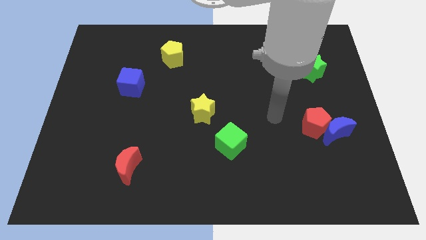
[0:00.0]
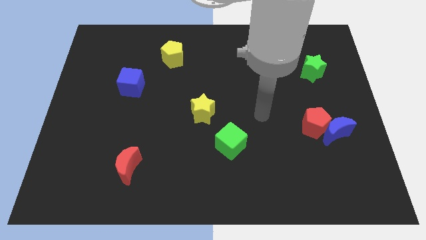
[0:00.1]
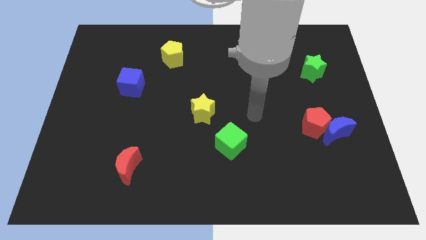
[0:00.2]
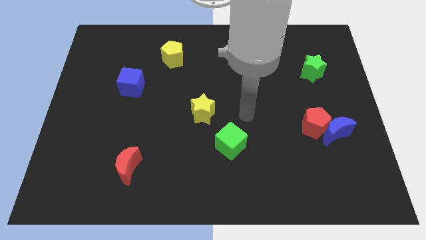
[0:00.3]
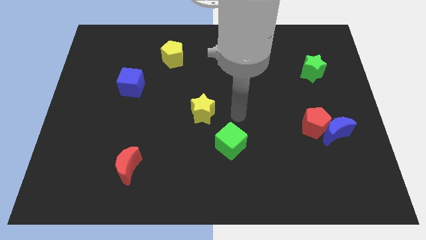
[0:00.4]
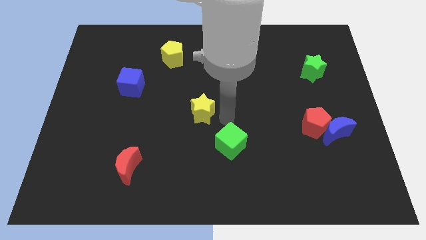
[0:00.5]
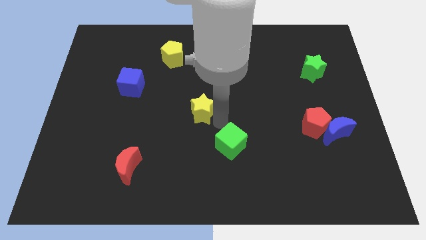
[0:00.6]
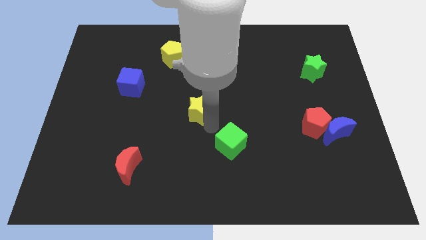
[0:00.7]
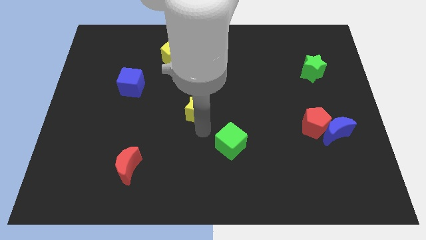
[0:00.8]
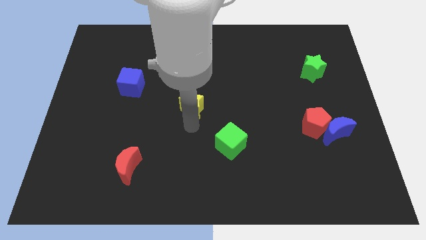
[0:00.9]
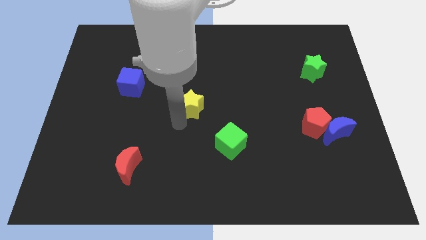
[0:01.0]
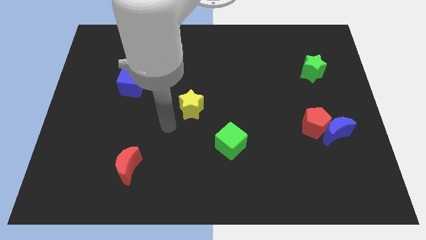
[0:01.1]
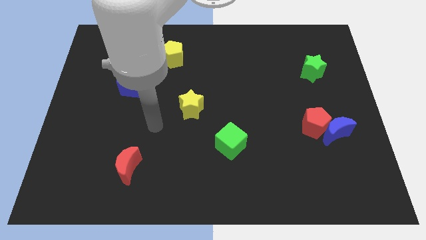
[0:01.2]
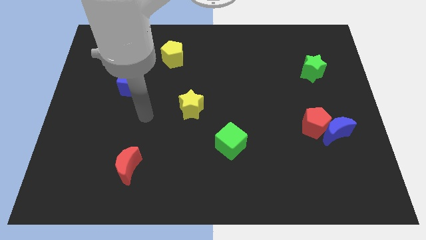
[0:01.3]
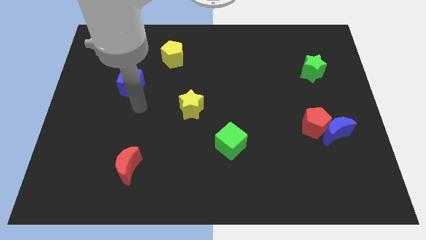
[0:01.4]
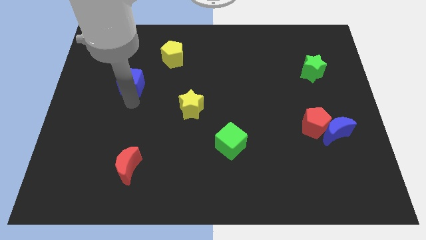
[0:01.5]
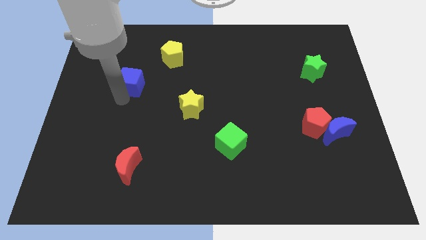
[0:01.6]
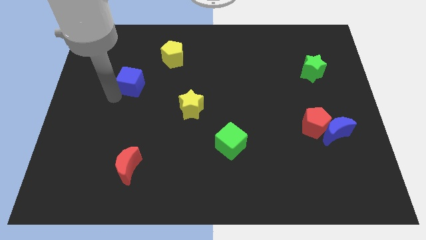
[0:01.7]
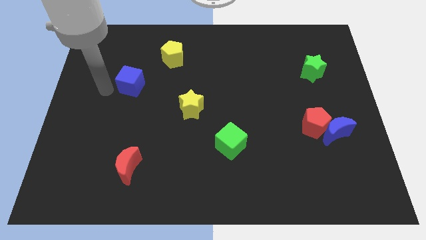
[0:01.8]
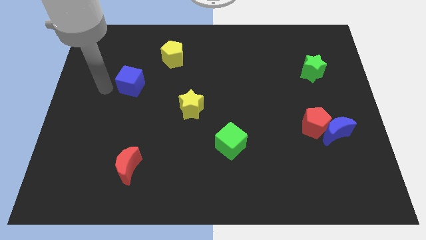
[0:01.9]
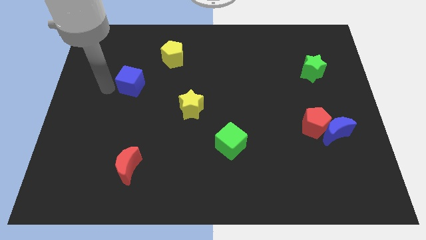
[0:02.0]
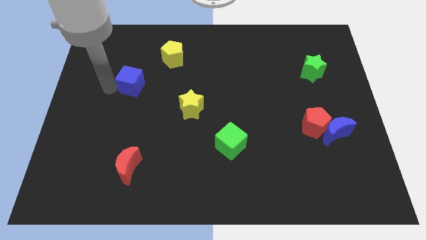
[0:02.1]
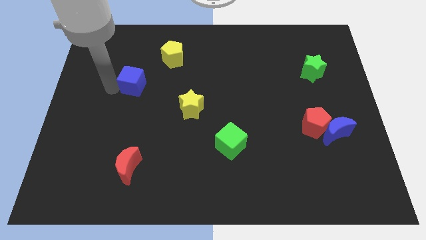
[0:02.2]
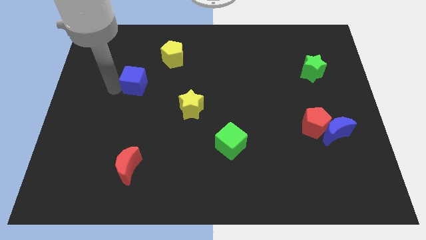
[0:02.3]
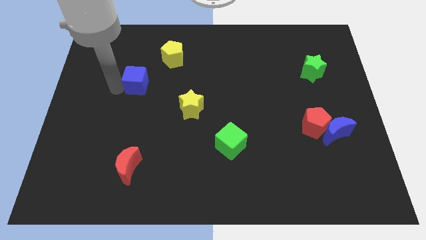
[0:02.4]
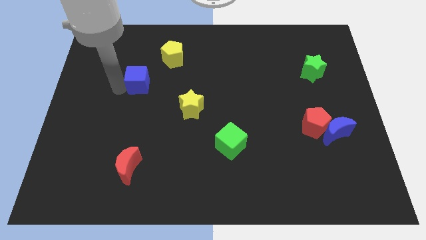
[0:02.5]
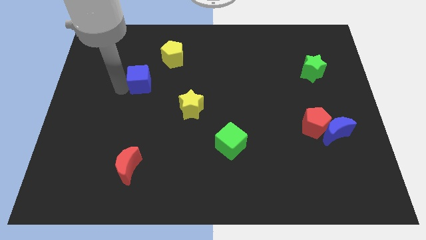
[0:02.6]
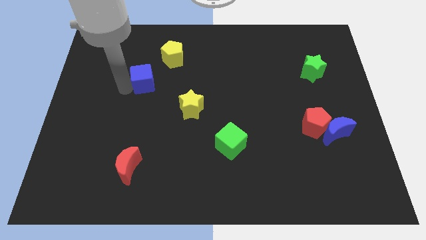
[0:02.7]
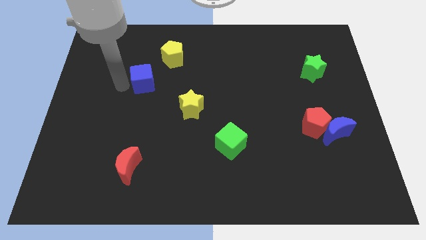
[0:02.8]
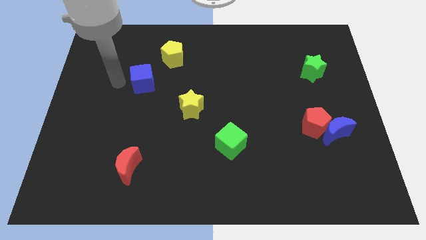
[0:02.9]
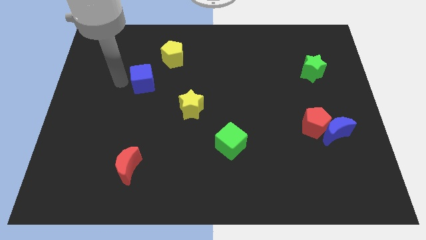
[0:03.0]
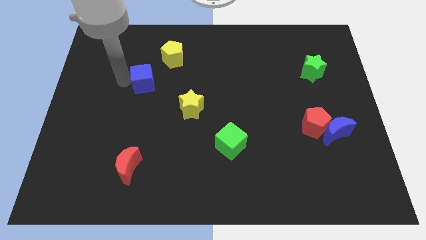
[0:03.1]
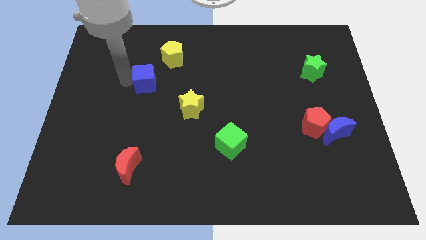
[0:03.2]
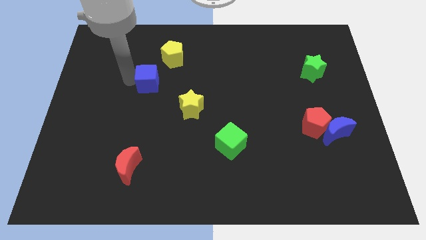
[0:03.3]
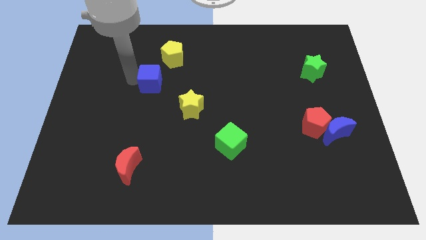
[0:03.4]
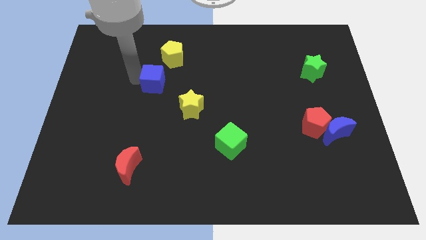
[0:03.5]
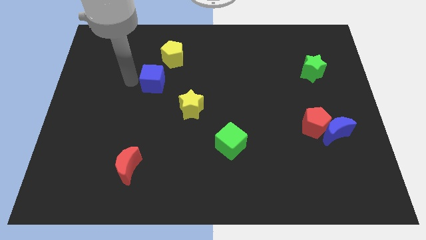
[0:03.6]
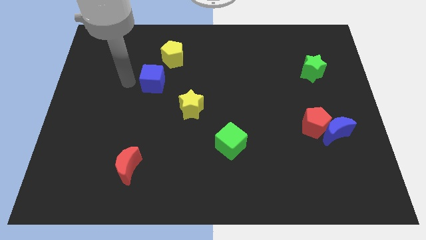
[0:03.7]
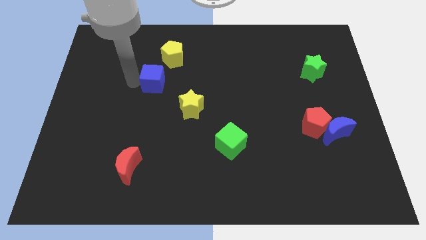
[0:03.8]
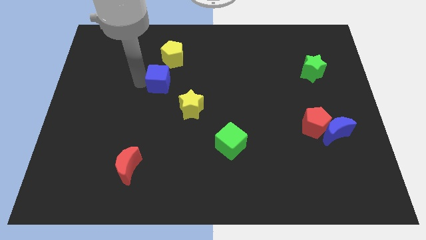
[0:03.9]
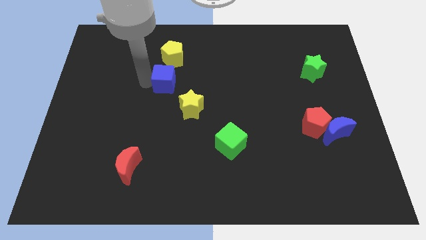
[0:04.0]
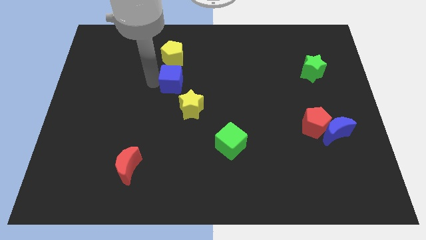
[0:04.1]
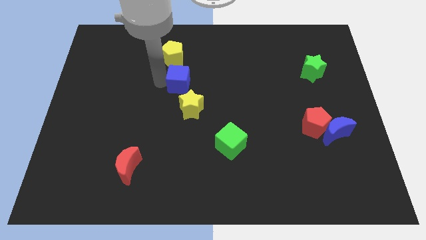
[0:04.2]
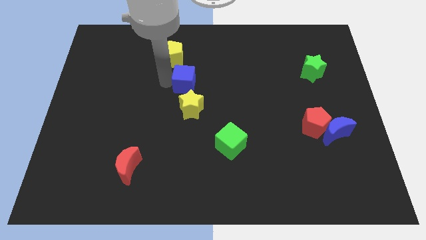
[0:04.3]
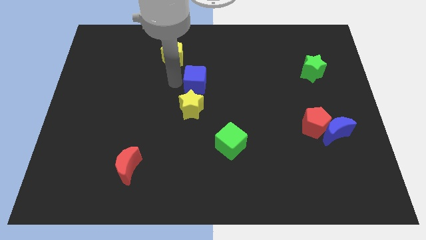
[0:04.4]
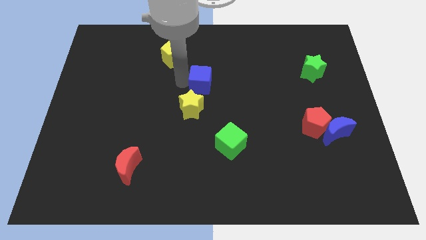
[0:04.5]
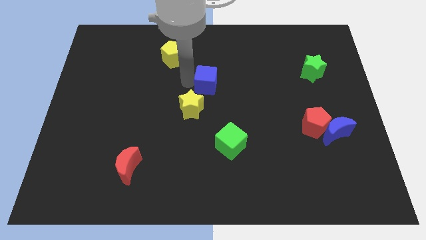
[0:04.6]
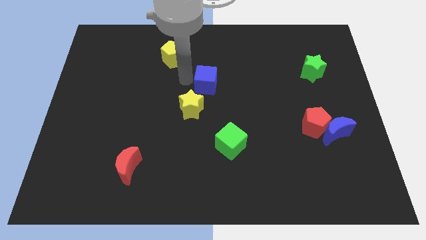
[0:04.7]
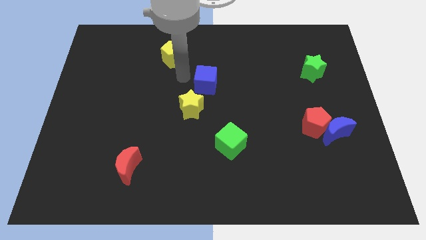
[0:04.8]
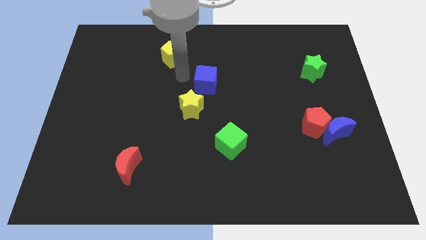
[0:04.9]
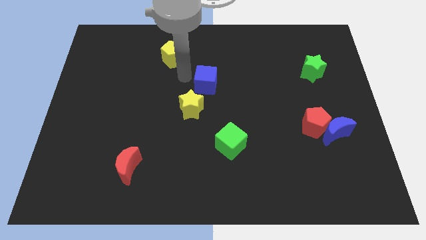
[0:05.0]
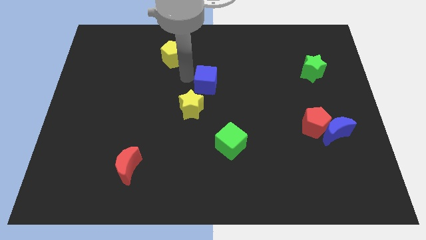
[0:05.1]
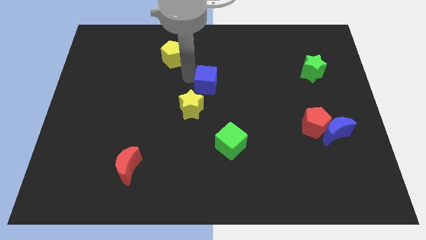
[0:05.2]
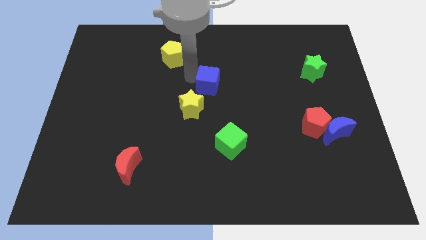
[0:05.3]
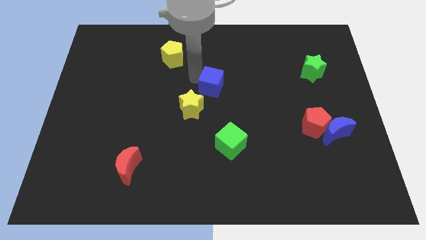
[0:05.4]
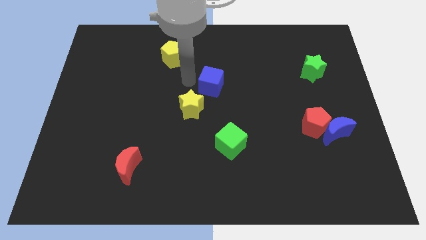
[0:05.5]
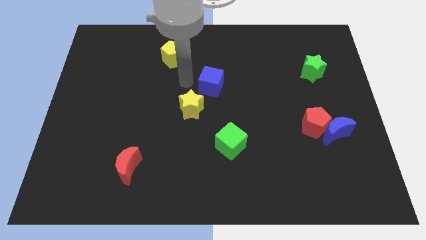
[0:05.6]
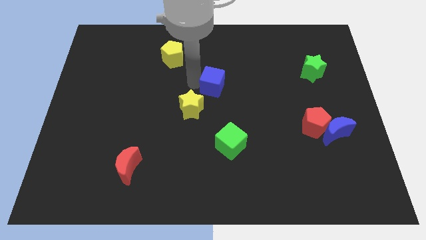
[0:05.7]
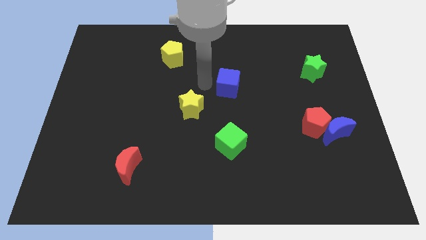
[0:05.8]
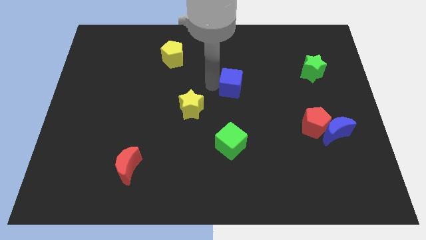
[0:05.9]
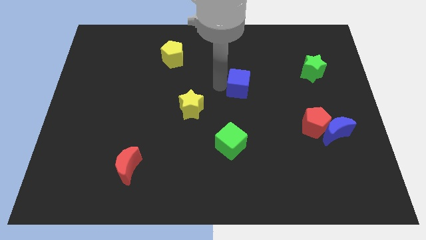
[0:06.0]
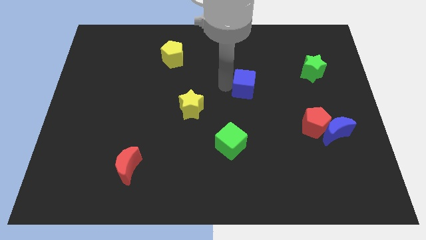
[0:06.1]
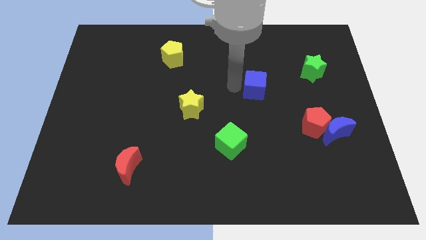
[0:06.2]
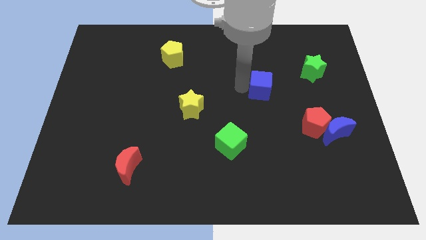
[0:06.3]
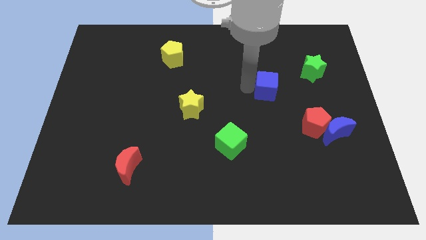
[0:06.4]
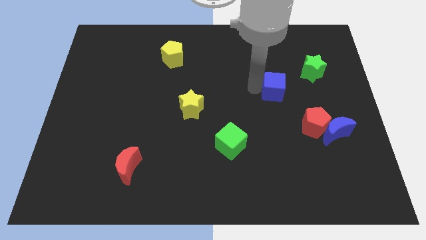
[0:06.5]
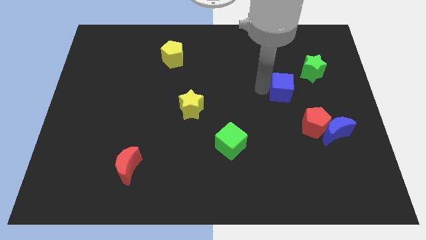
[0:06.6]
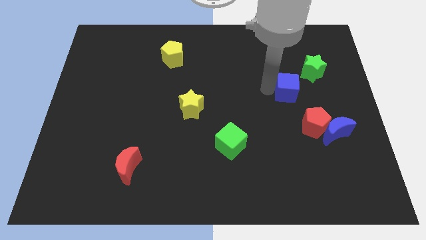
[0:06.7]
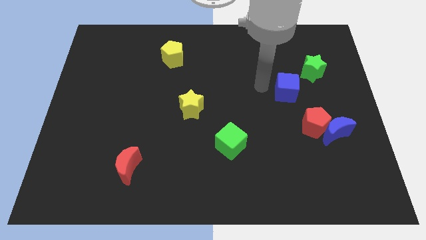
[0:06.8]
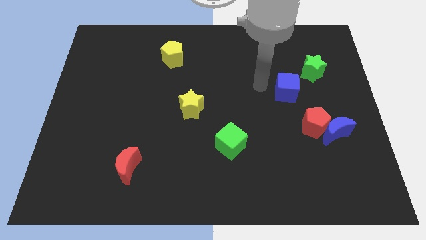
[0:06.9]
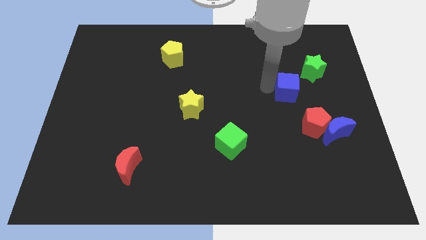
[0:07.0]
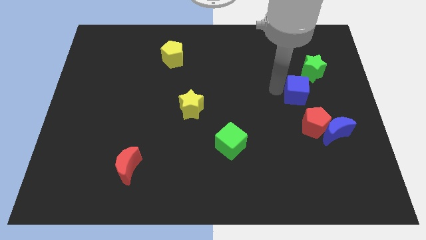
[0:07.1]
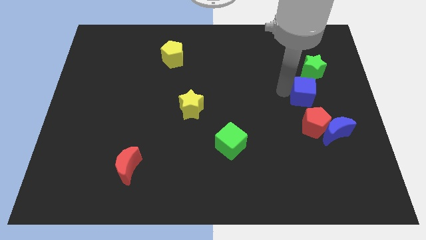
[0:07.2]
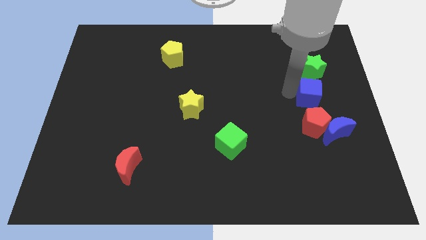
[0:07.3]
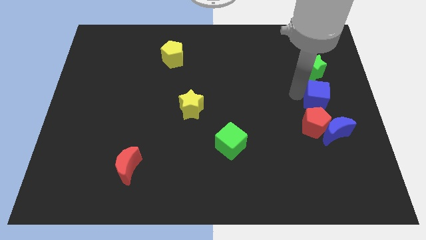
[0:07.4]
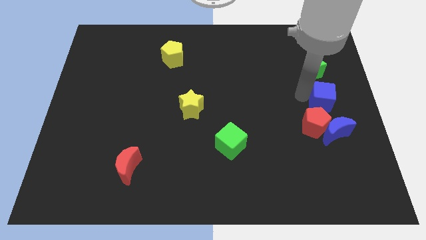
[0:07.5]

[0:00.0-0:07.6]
slide the blue cube to the center right

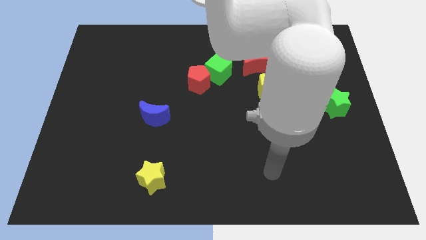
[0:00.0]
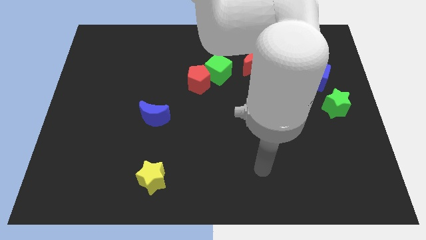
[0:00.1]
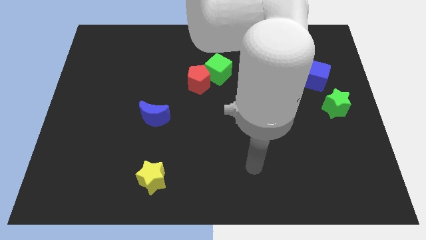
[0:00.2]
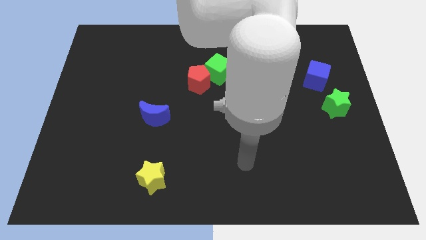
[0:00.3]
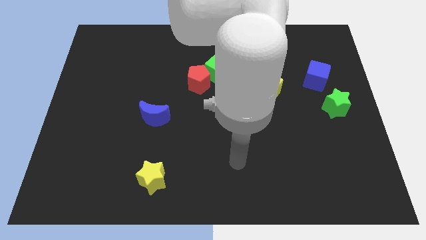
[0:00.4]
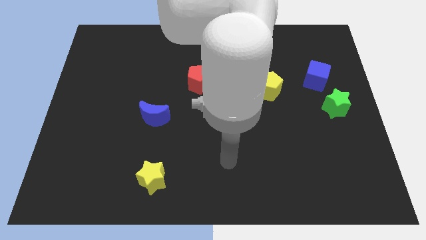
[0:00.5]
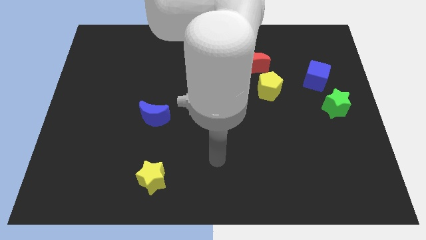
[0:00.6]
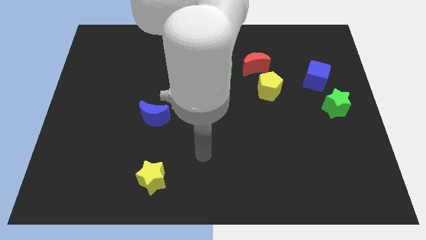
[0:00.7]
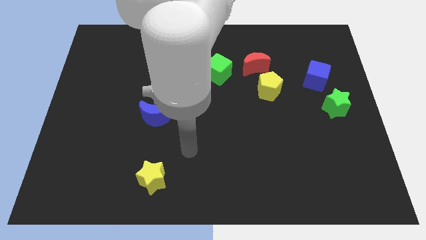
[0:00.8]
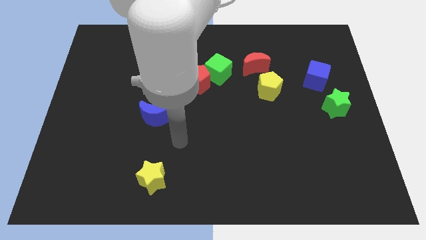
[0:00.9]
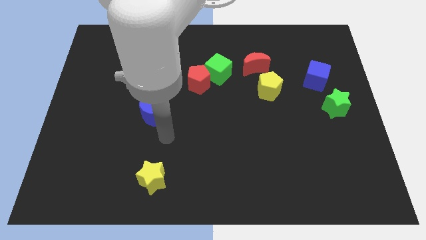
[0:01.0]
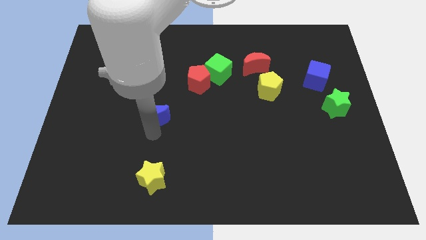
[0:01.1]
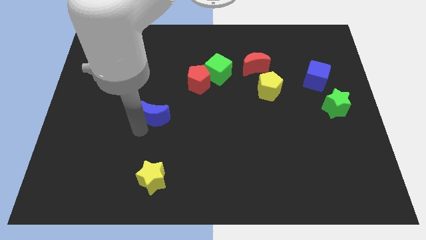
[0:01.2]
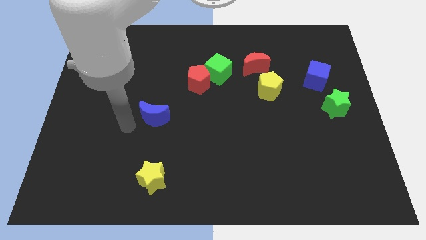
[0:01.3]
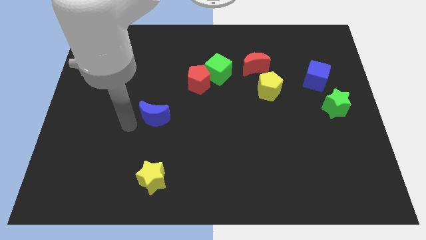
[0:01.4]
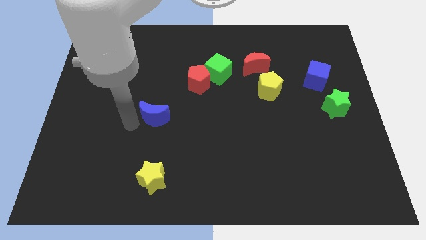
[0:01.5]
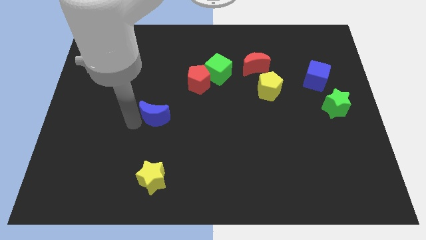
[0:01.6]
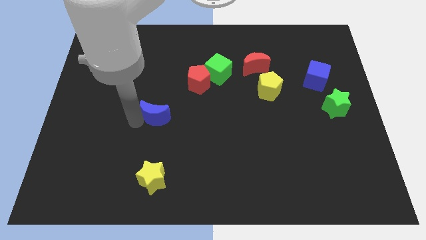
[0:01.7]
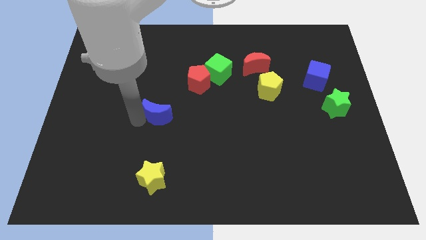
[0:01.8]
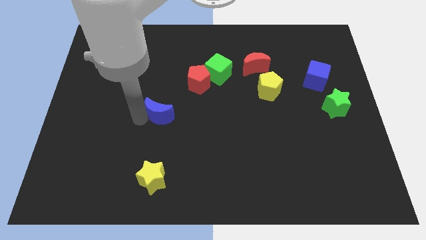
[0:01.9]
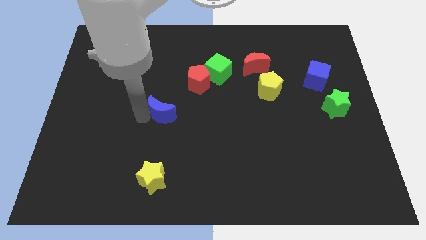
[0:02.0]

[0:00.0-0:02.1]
push the blue moon to the center of the board
